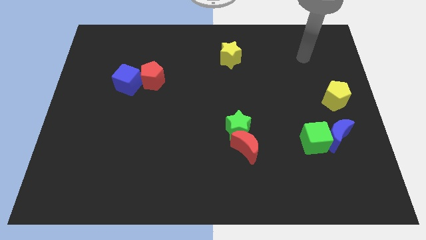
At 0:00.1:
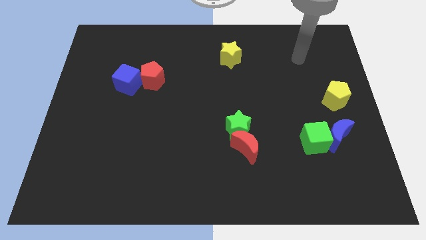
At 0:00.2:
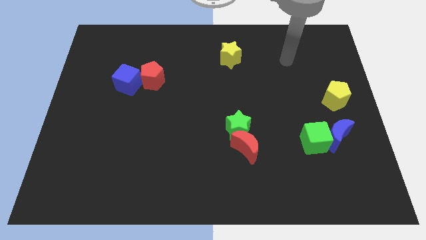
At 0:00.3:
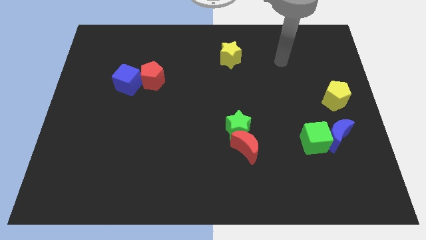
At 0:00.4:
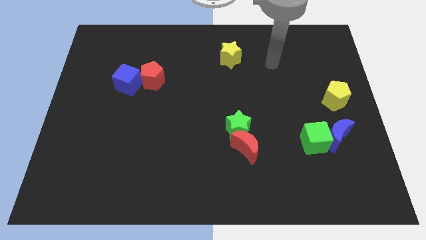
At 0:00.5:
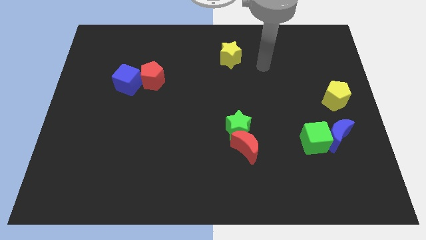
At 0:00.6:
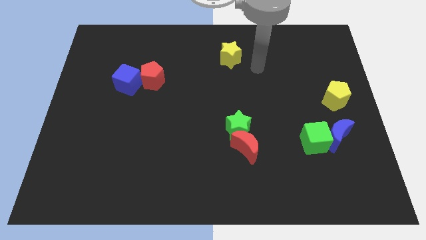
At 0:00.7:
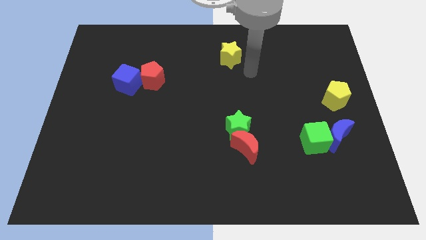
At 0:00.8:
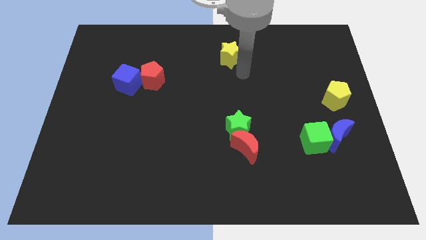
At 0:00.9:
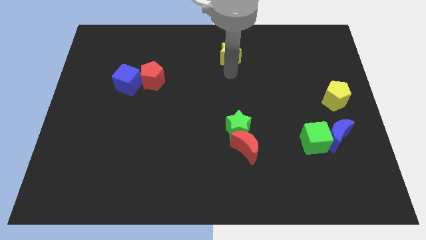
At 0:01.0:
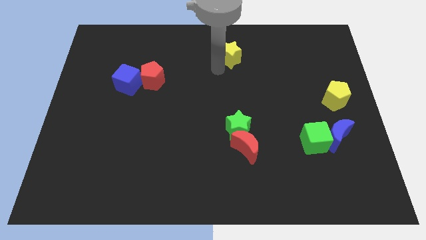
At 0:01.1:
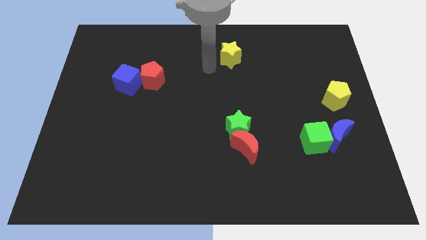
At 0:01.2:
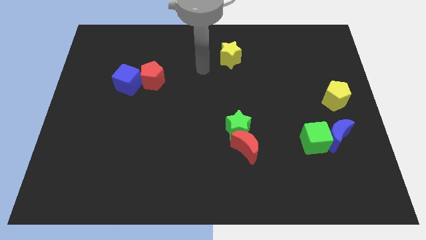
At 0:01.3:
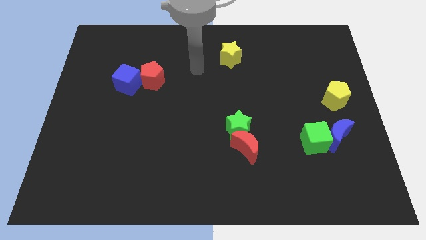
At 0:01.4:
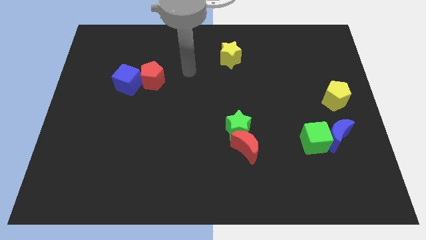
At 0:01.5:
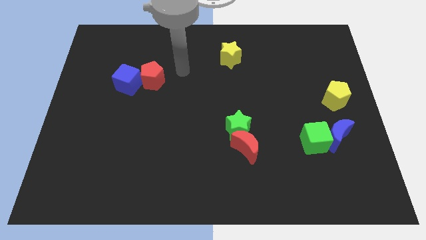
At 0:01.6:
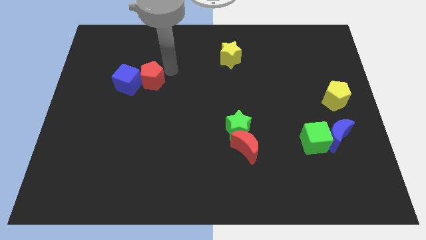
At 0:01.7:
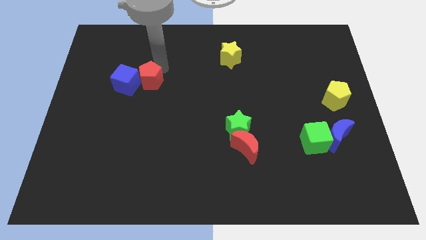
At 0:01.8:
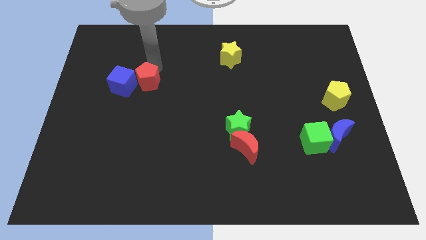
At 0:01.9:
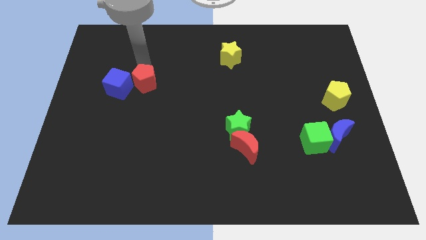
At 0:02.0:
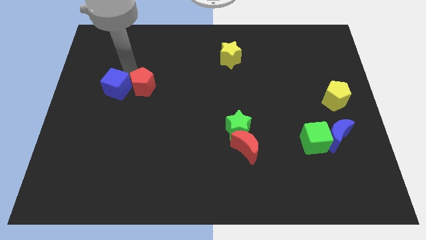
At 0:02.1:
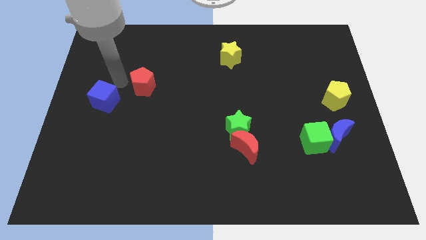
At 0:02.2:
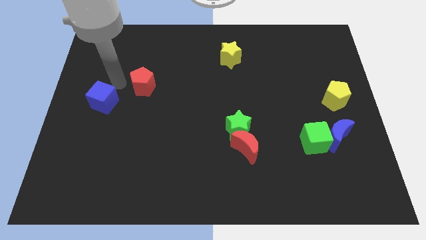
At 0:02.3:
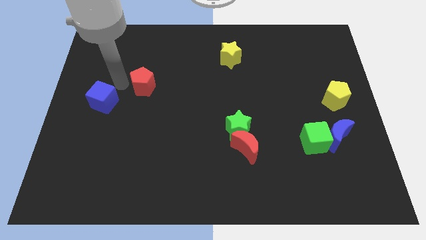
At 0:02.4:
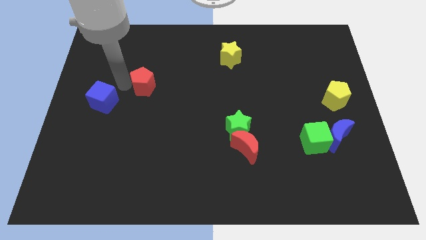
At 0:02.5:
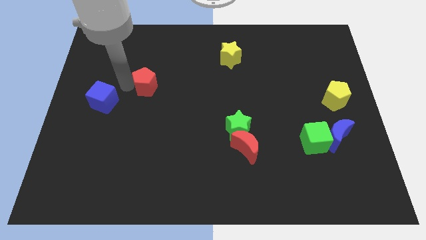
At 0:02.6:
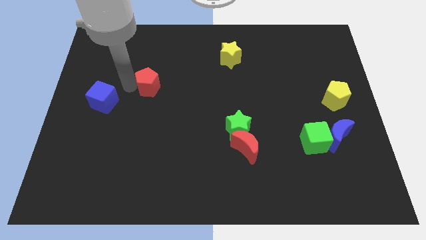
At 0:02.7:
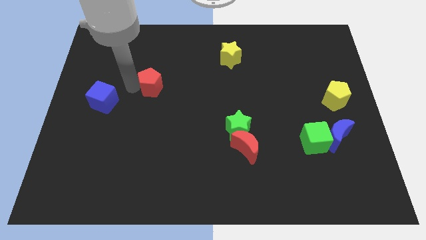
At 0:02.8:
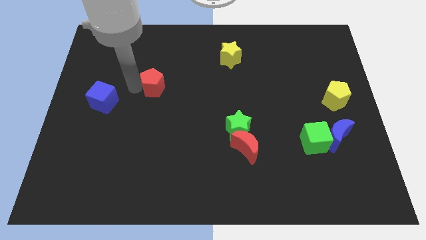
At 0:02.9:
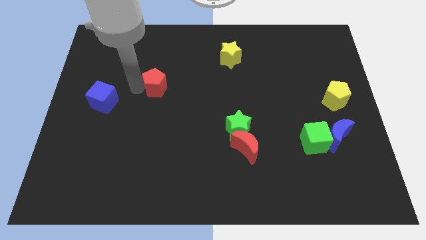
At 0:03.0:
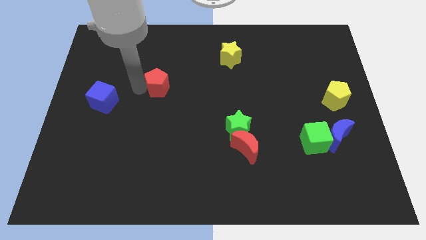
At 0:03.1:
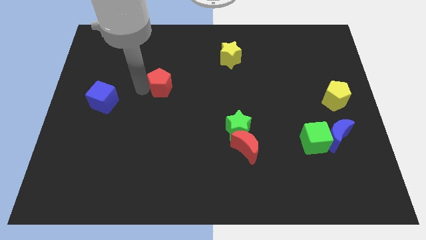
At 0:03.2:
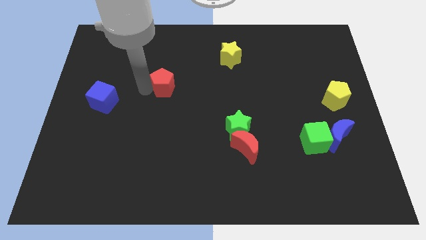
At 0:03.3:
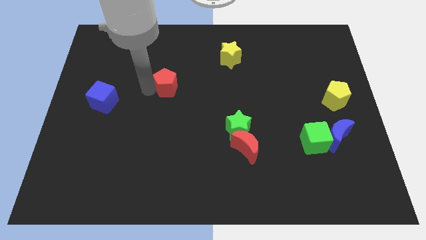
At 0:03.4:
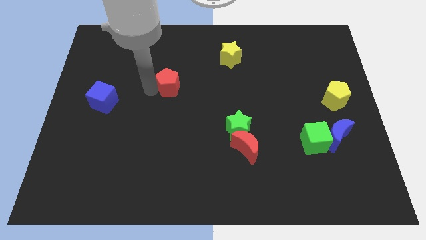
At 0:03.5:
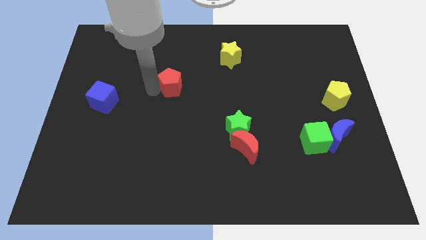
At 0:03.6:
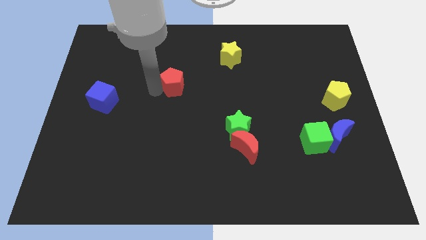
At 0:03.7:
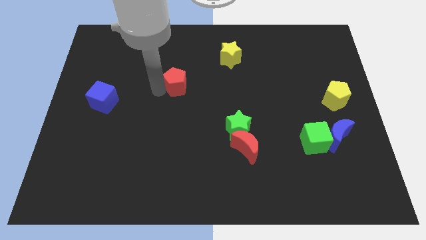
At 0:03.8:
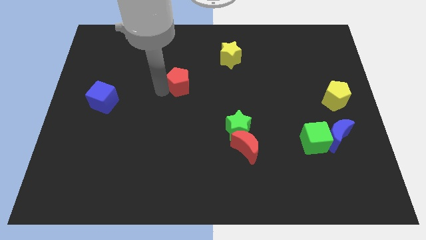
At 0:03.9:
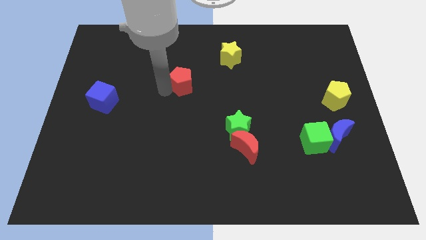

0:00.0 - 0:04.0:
move the red pentagon a little right

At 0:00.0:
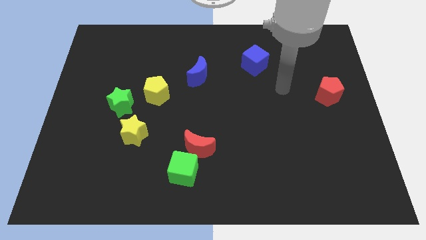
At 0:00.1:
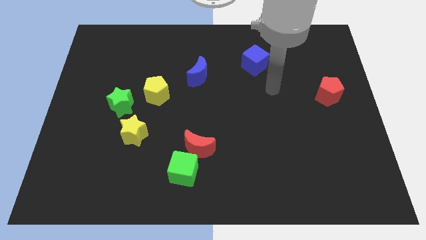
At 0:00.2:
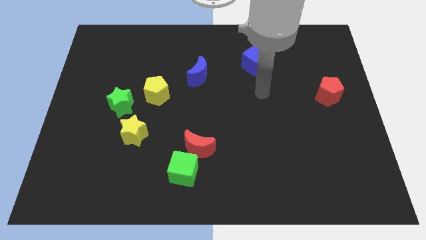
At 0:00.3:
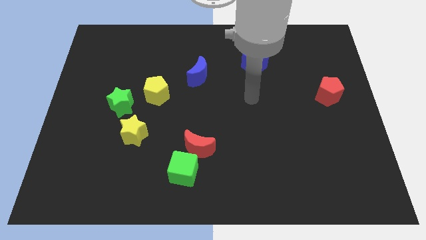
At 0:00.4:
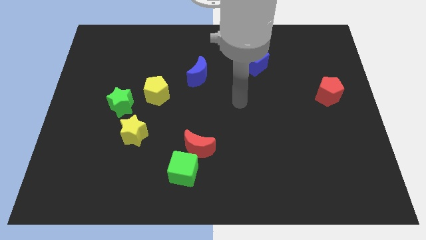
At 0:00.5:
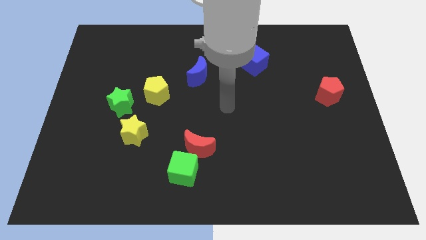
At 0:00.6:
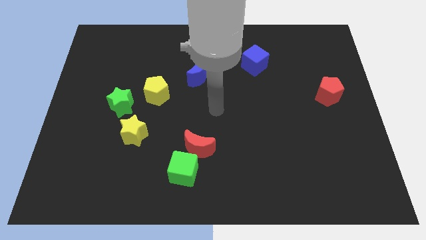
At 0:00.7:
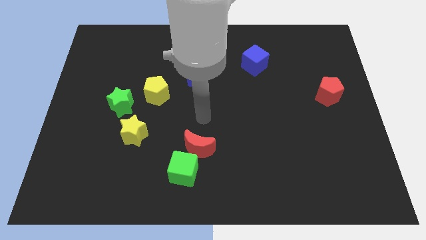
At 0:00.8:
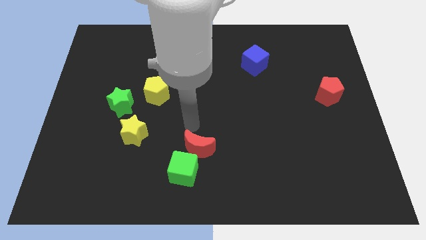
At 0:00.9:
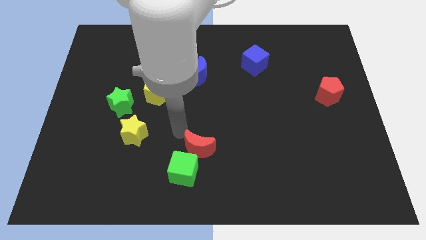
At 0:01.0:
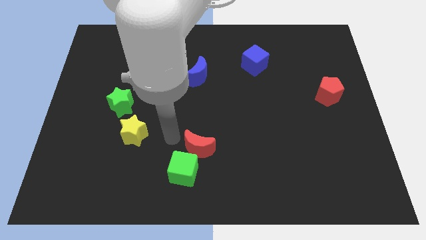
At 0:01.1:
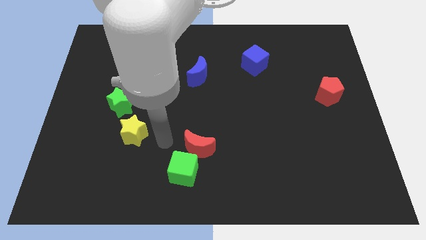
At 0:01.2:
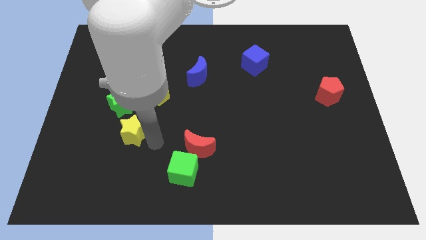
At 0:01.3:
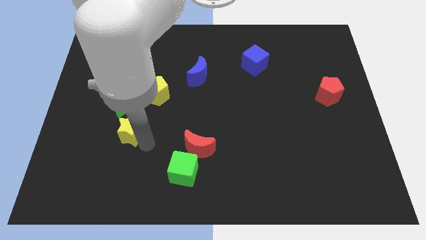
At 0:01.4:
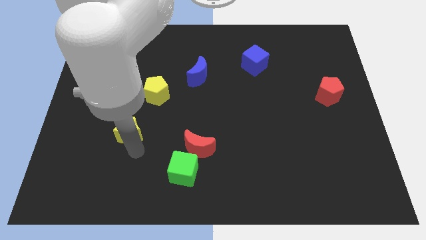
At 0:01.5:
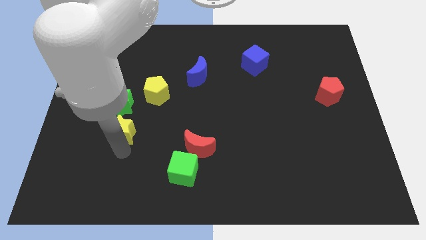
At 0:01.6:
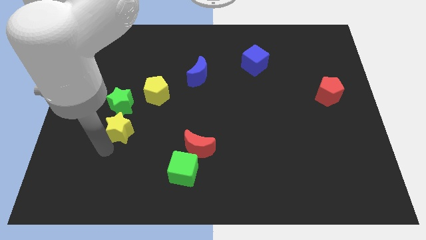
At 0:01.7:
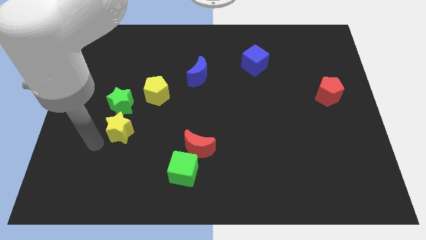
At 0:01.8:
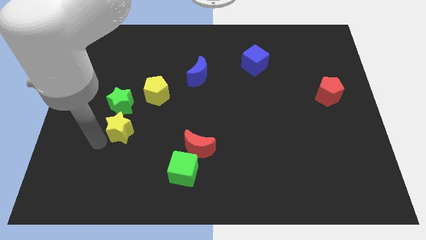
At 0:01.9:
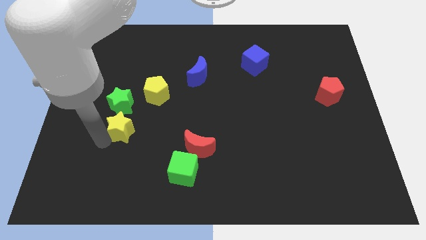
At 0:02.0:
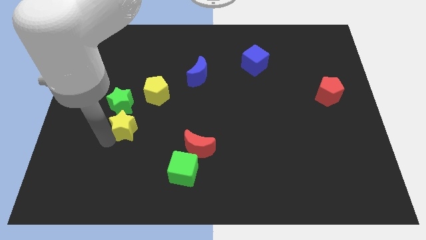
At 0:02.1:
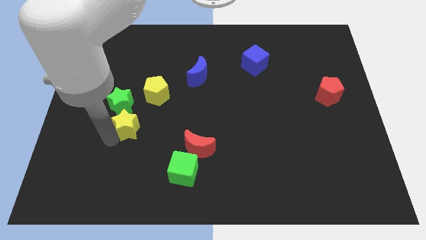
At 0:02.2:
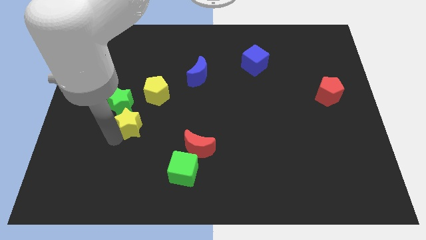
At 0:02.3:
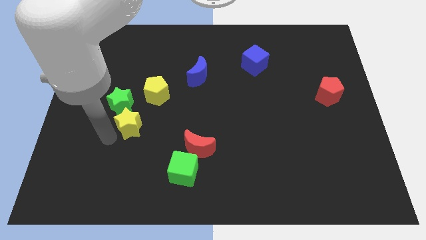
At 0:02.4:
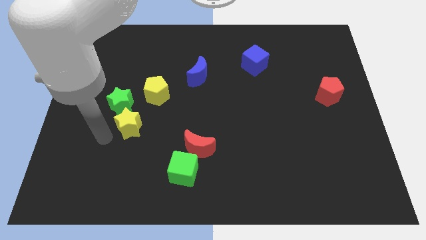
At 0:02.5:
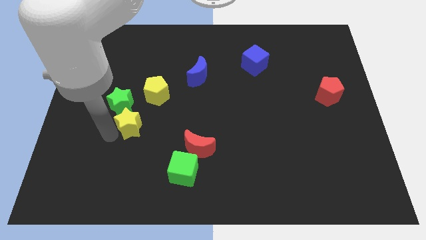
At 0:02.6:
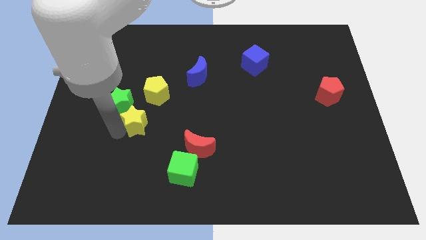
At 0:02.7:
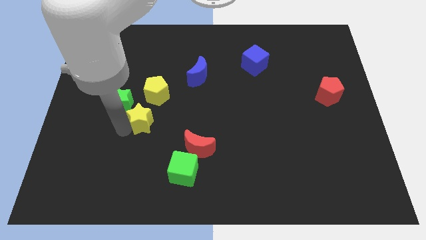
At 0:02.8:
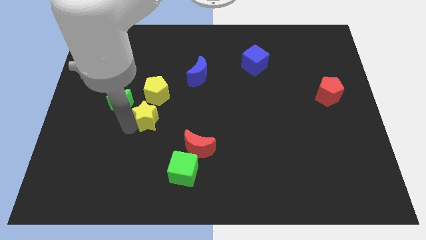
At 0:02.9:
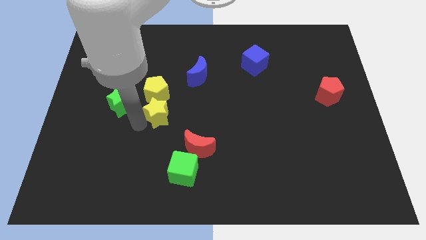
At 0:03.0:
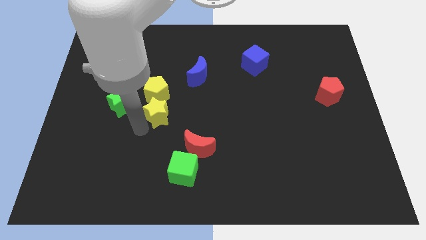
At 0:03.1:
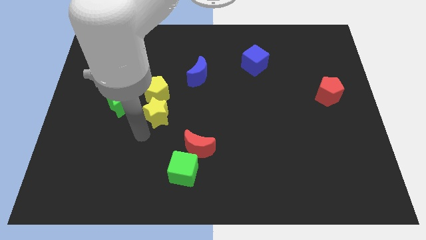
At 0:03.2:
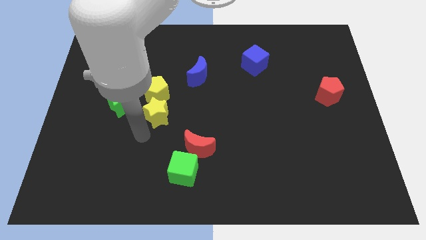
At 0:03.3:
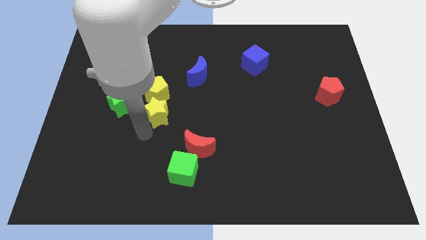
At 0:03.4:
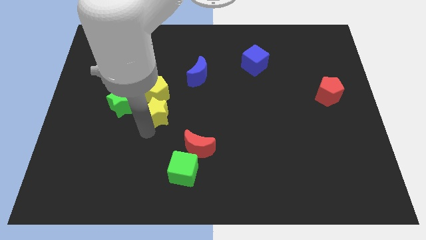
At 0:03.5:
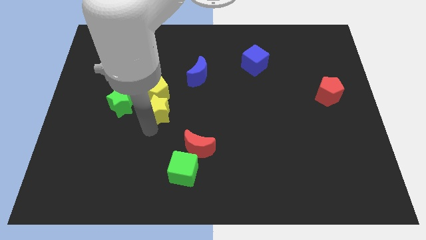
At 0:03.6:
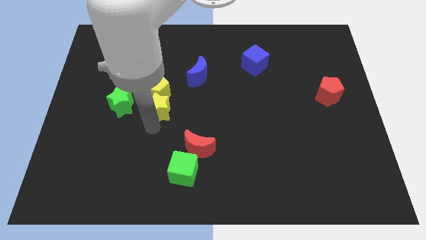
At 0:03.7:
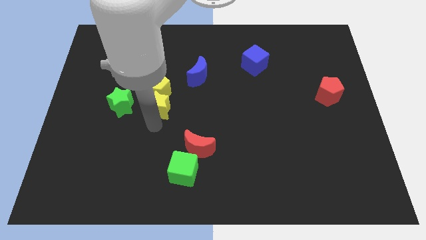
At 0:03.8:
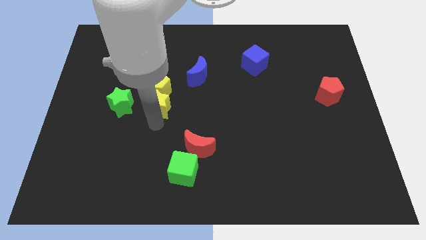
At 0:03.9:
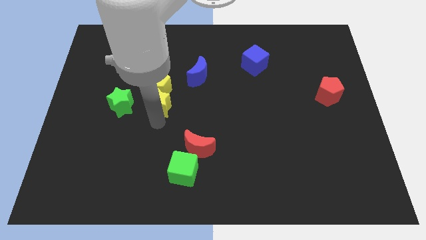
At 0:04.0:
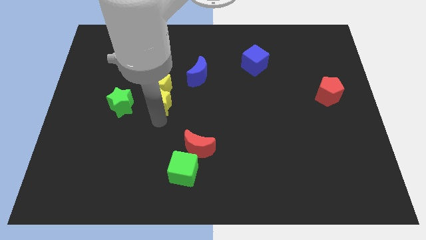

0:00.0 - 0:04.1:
push the yellow star a bit upwards
